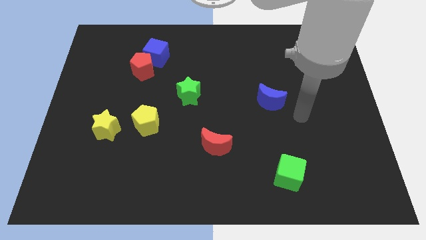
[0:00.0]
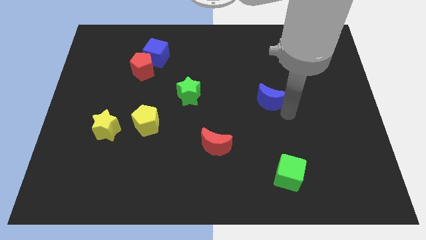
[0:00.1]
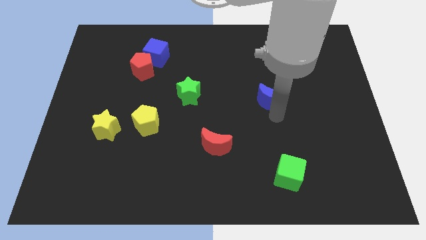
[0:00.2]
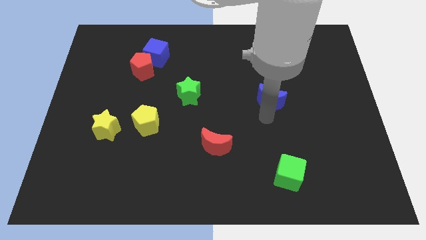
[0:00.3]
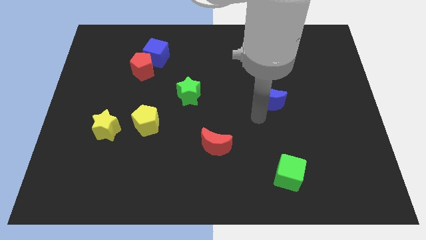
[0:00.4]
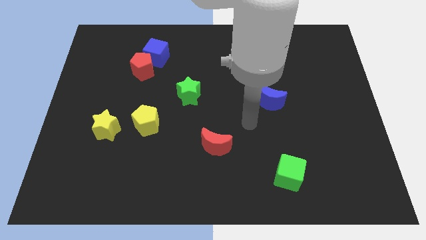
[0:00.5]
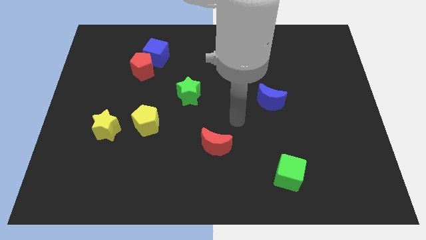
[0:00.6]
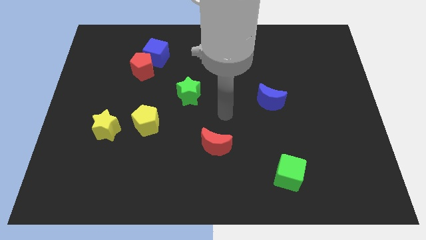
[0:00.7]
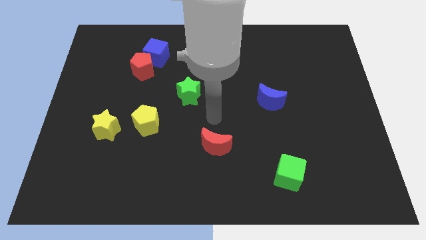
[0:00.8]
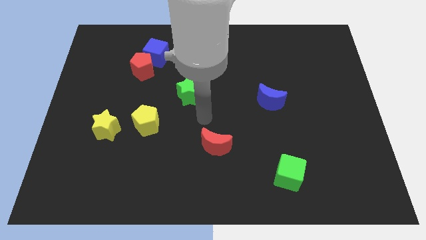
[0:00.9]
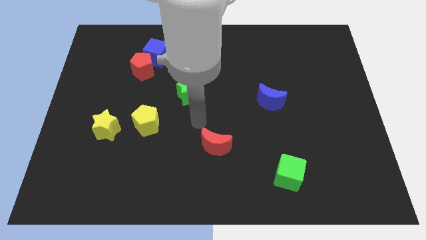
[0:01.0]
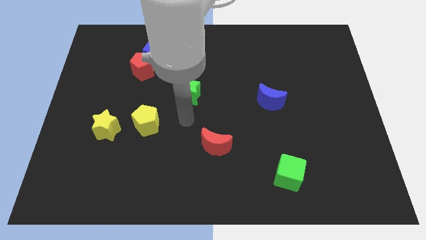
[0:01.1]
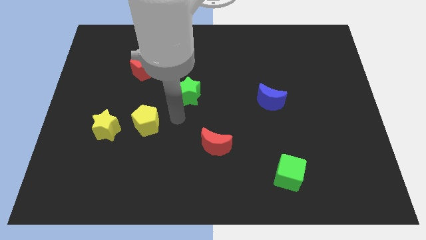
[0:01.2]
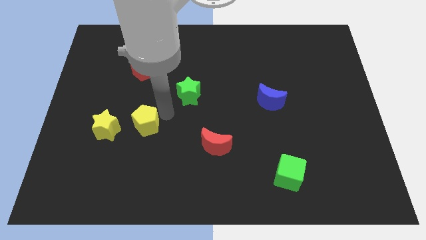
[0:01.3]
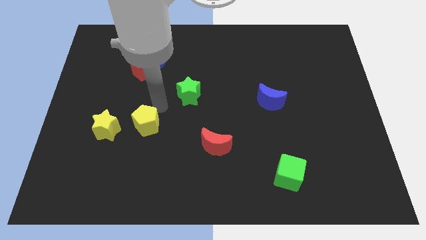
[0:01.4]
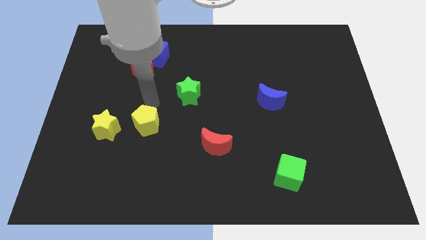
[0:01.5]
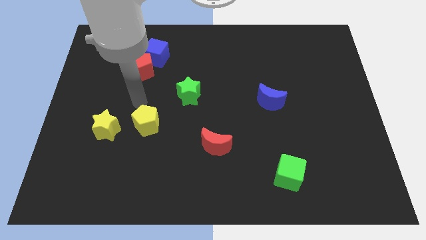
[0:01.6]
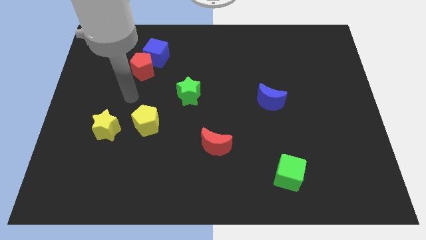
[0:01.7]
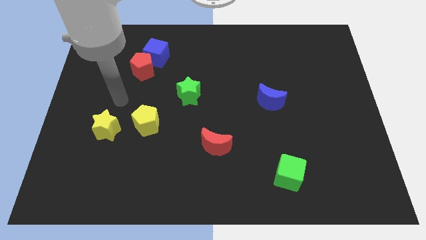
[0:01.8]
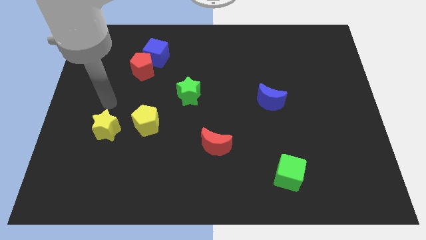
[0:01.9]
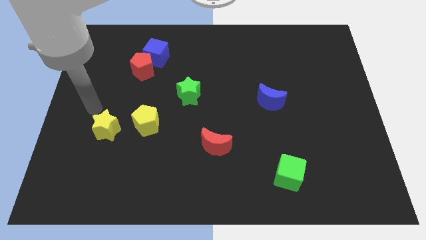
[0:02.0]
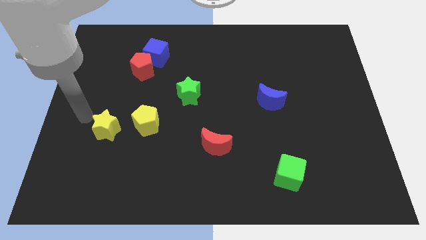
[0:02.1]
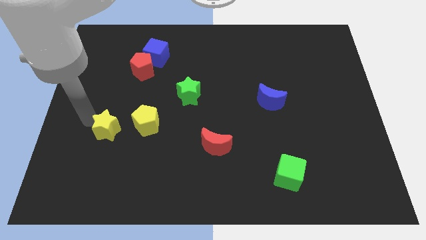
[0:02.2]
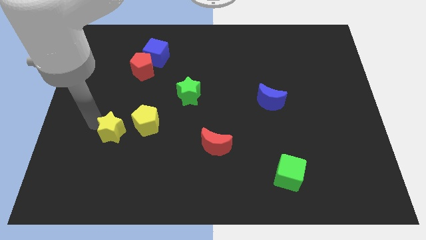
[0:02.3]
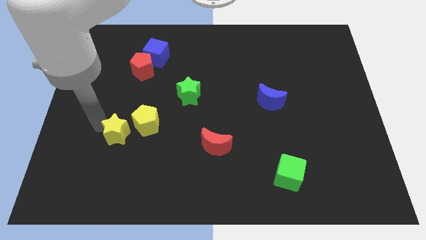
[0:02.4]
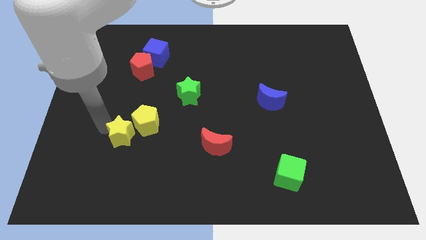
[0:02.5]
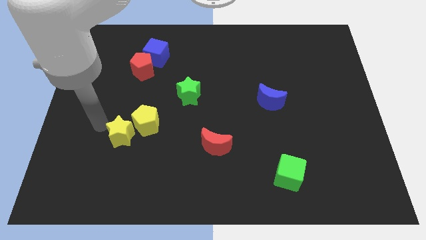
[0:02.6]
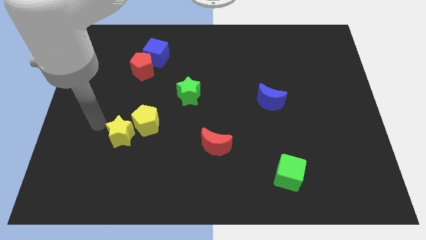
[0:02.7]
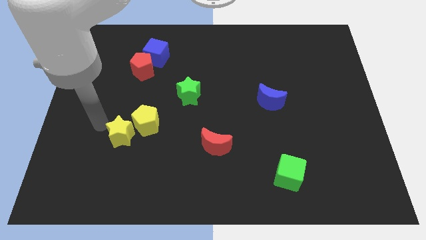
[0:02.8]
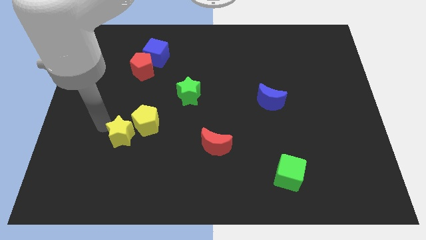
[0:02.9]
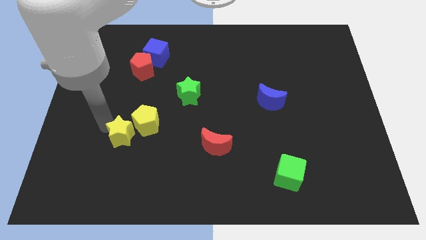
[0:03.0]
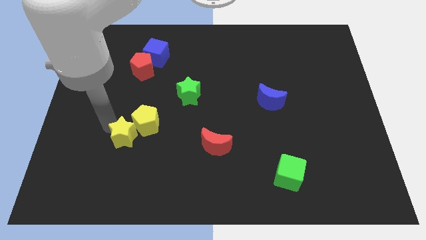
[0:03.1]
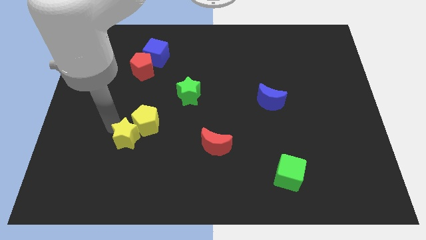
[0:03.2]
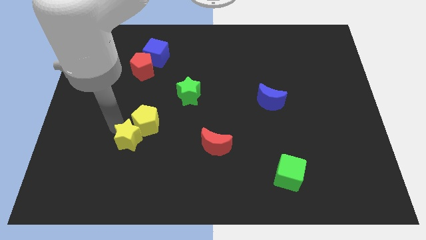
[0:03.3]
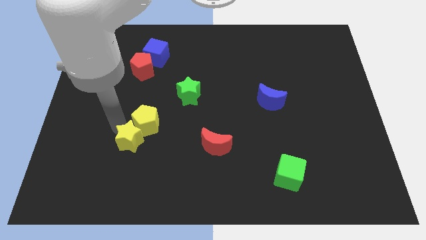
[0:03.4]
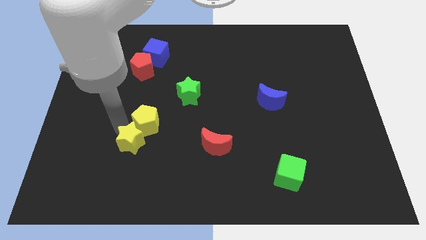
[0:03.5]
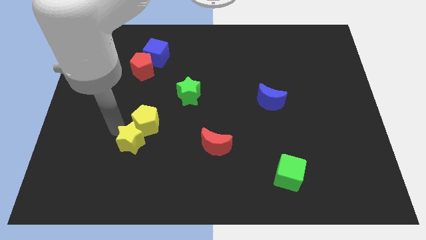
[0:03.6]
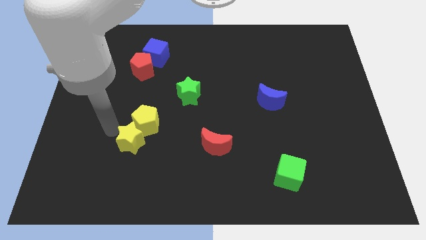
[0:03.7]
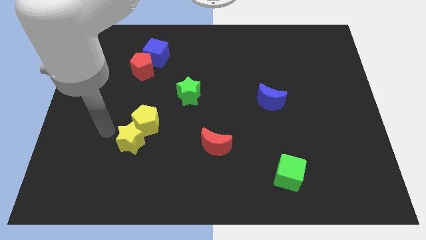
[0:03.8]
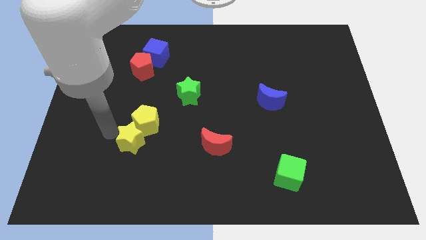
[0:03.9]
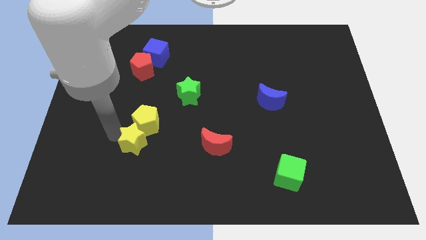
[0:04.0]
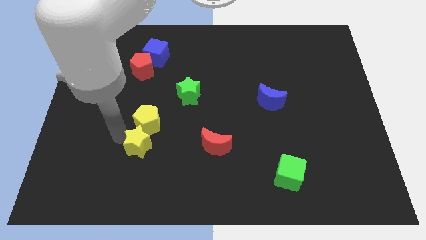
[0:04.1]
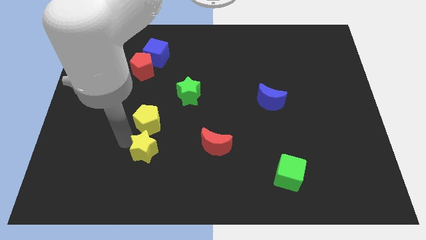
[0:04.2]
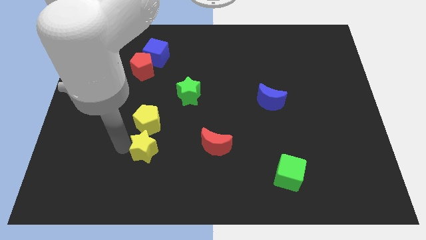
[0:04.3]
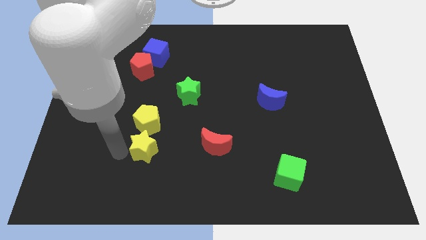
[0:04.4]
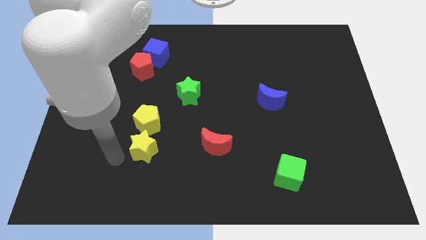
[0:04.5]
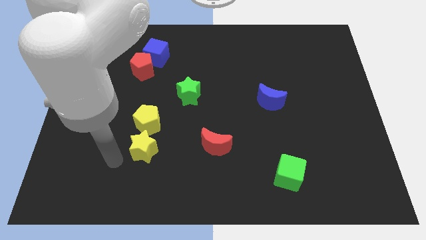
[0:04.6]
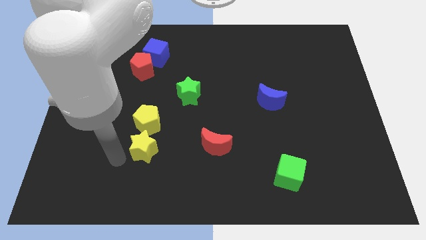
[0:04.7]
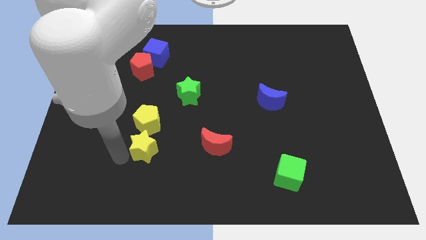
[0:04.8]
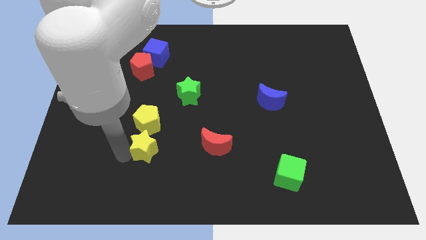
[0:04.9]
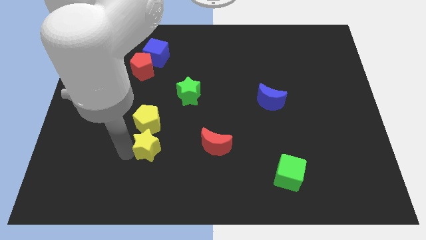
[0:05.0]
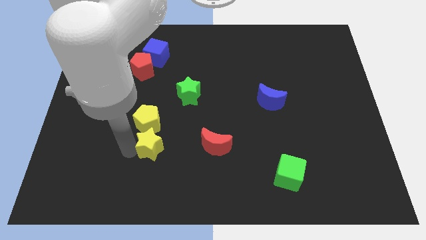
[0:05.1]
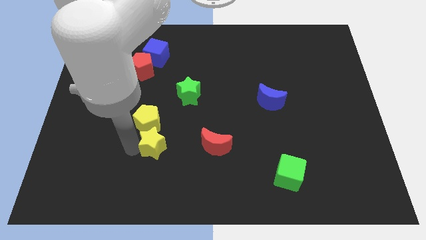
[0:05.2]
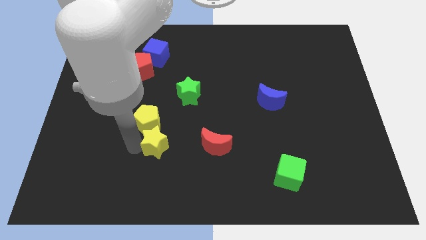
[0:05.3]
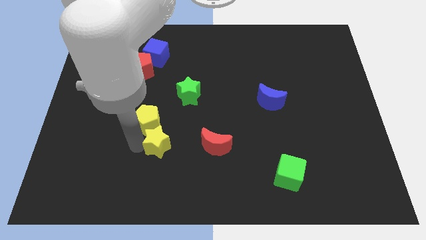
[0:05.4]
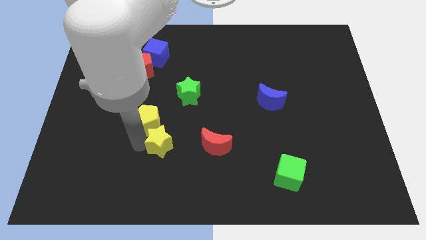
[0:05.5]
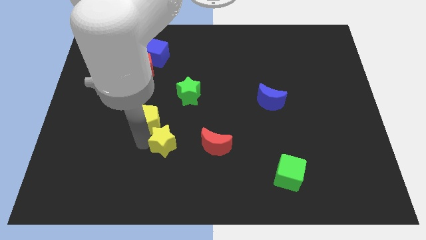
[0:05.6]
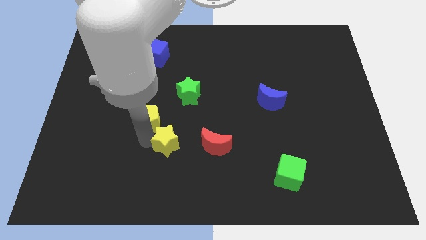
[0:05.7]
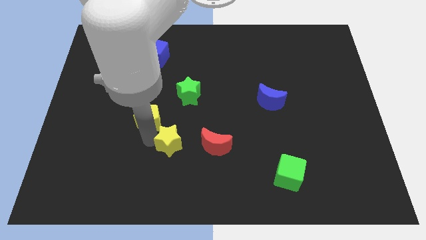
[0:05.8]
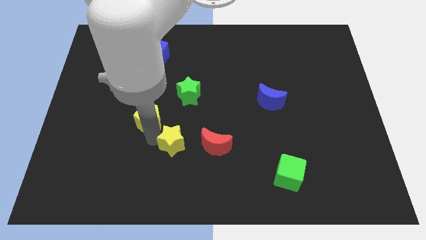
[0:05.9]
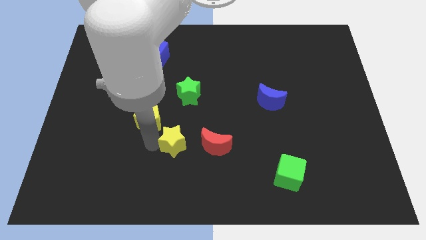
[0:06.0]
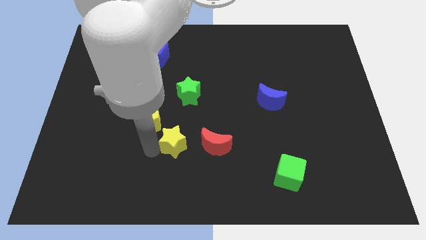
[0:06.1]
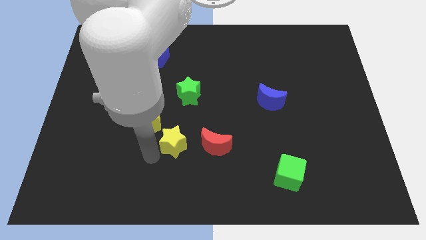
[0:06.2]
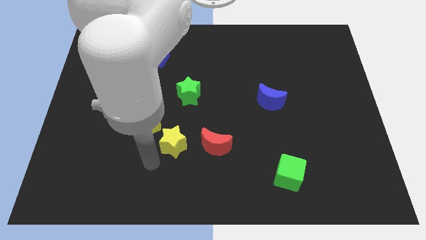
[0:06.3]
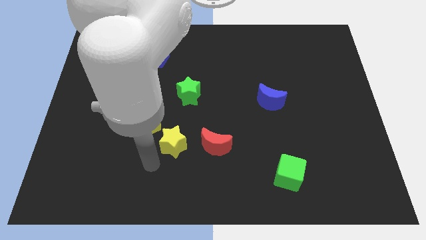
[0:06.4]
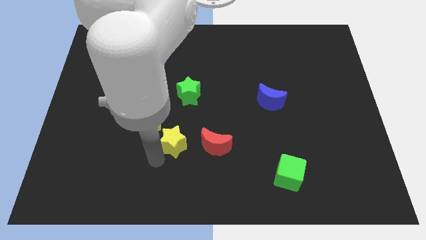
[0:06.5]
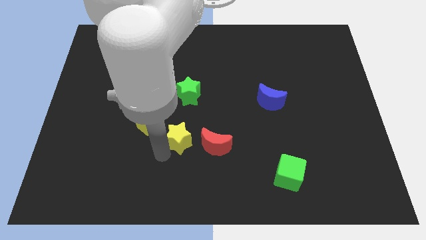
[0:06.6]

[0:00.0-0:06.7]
put the yellow star to the top left of the red moon
